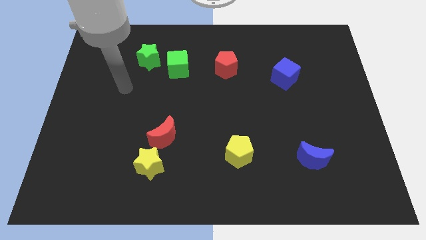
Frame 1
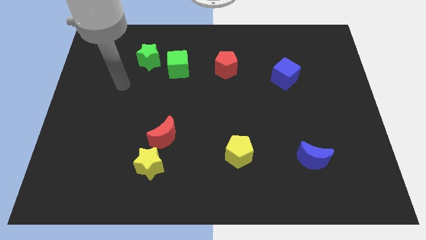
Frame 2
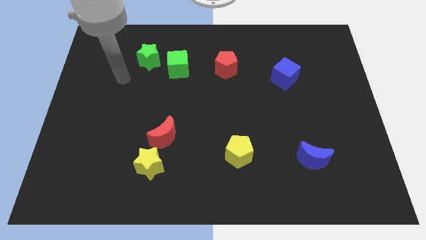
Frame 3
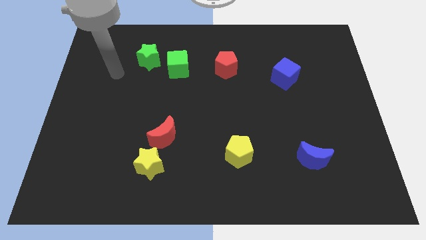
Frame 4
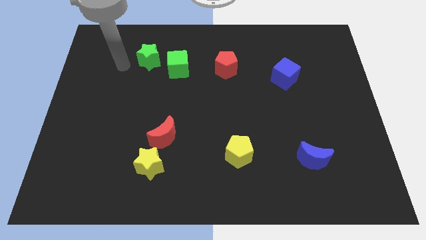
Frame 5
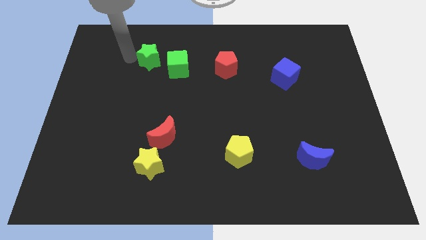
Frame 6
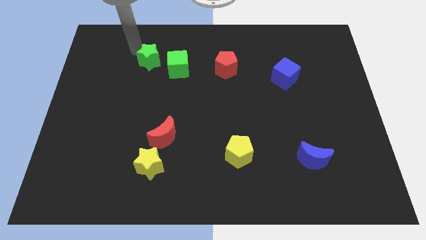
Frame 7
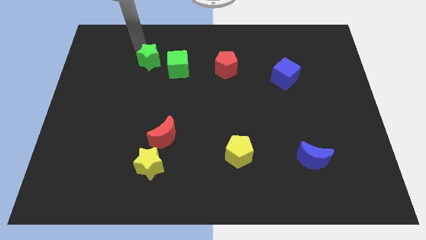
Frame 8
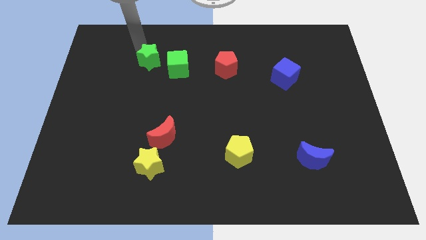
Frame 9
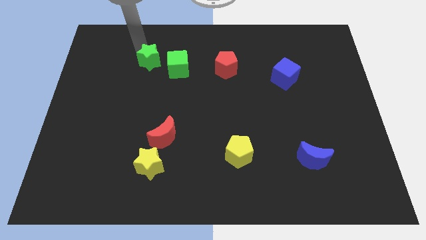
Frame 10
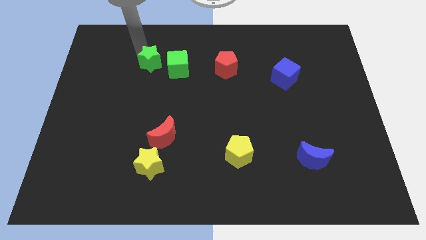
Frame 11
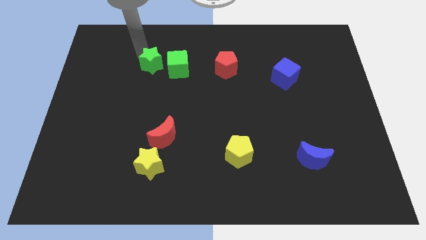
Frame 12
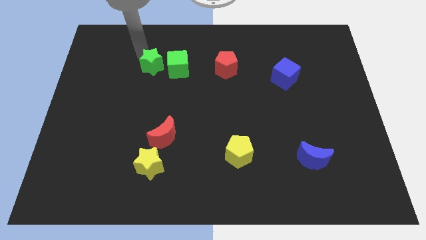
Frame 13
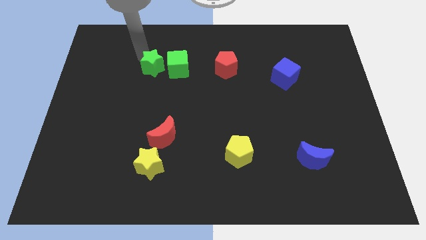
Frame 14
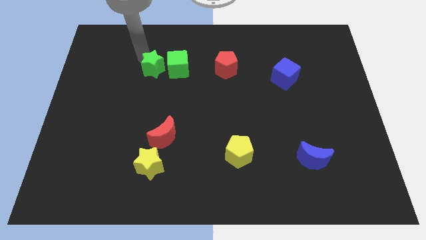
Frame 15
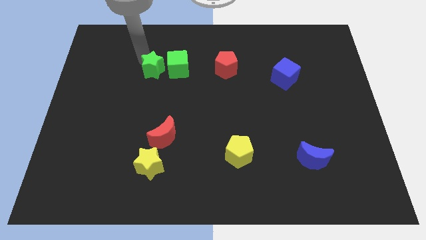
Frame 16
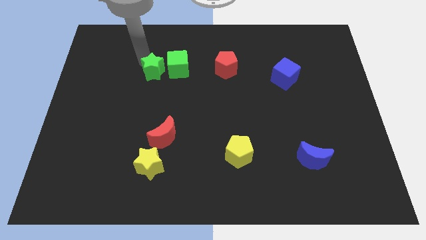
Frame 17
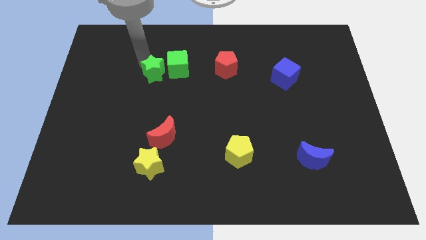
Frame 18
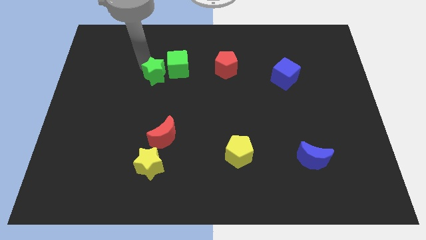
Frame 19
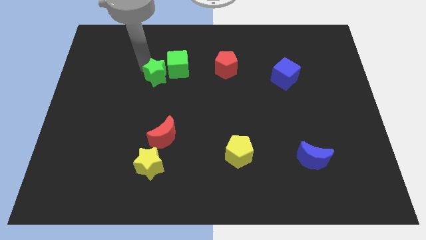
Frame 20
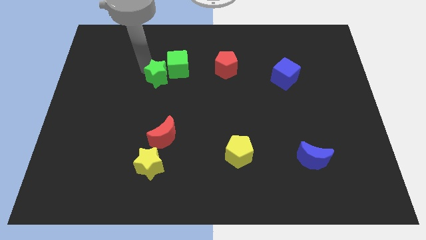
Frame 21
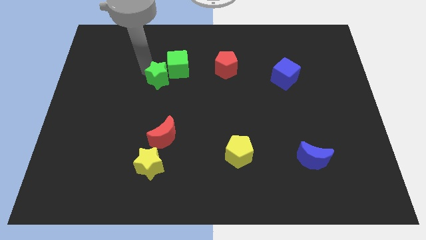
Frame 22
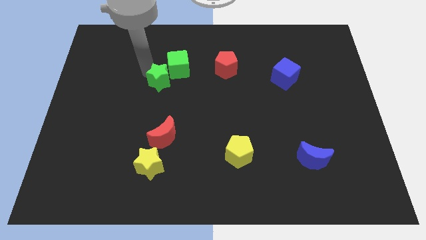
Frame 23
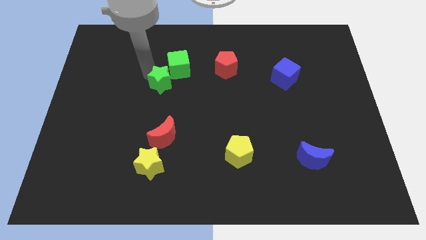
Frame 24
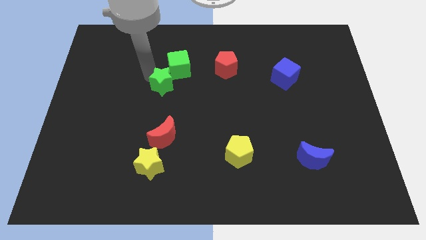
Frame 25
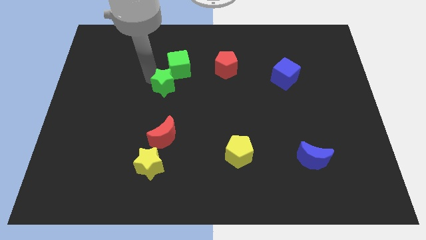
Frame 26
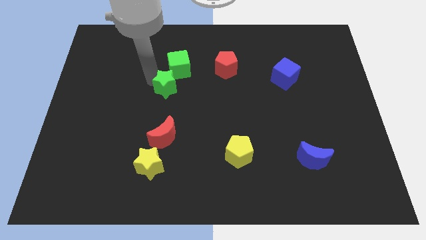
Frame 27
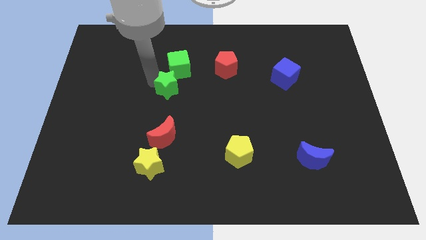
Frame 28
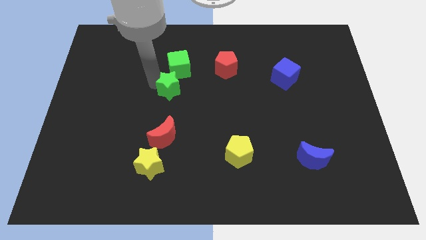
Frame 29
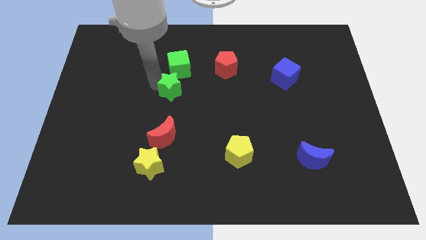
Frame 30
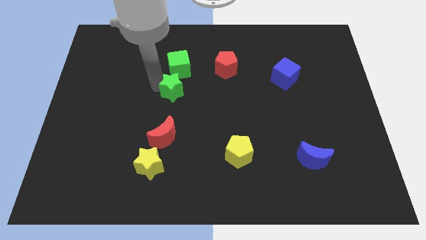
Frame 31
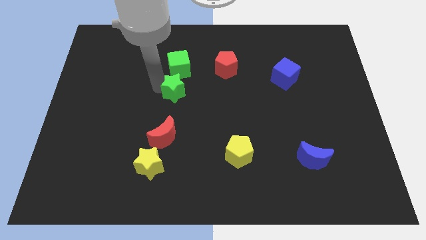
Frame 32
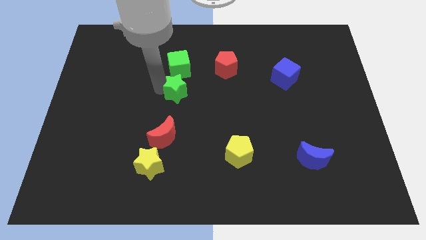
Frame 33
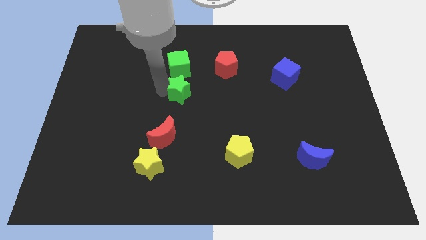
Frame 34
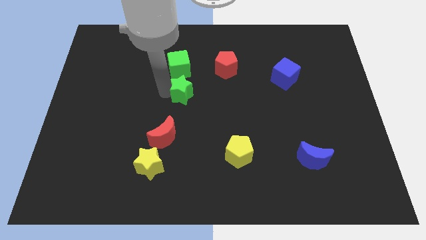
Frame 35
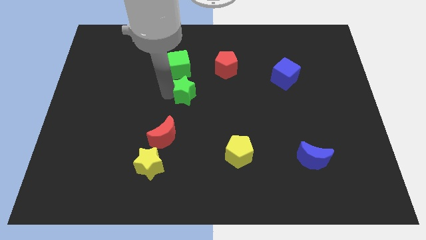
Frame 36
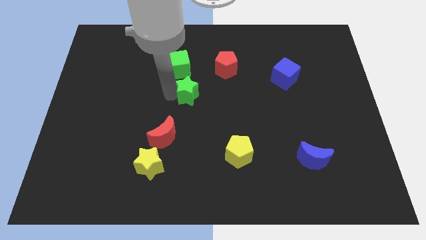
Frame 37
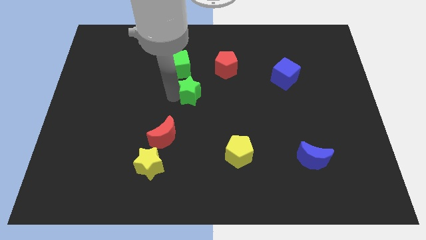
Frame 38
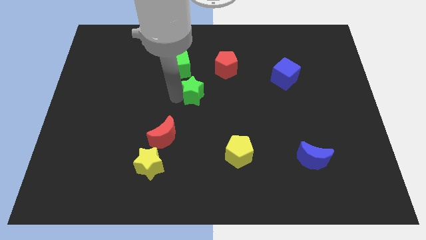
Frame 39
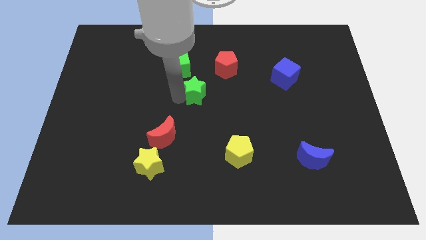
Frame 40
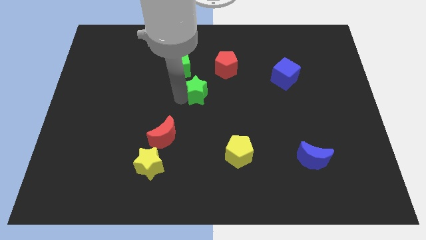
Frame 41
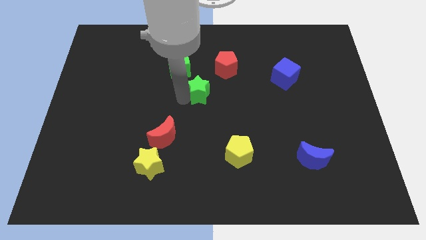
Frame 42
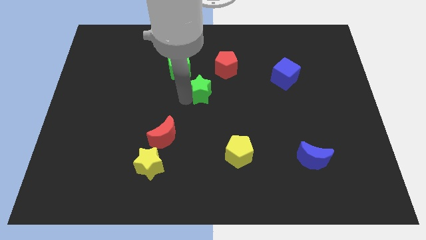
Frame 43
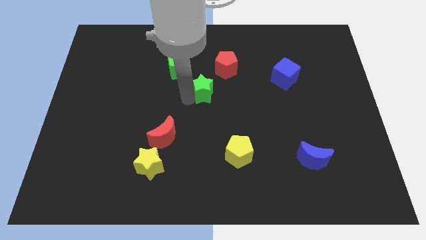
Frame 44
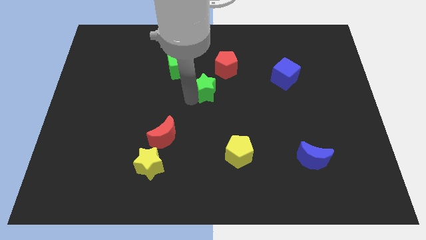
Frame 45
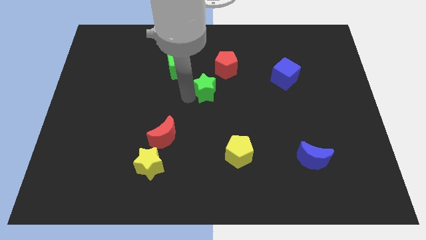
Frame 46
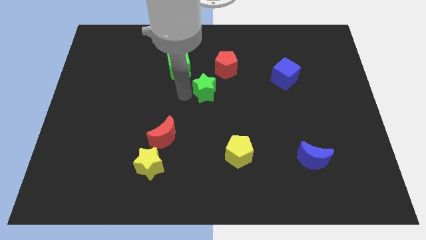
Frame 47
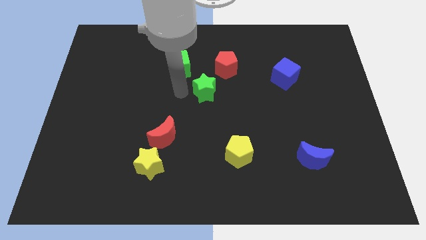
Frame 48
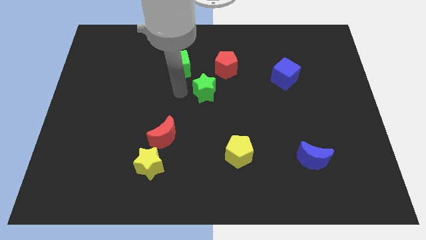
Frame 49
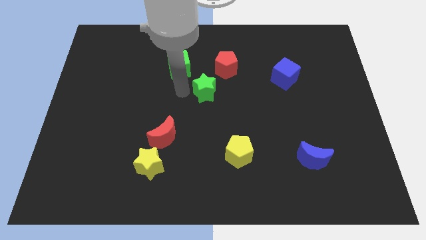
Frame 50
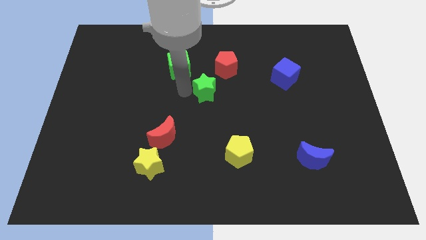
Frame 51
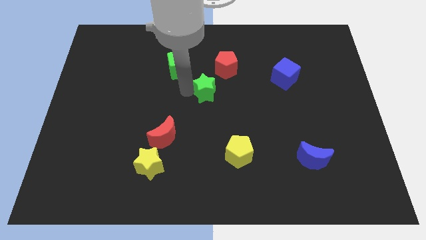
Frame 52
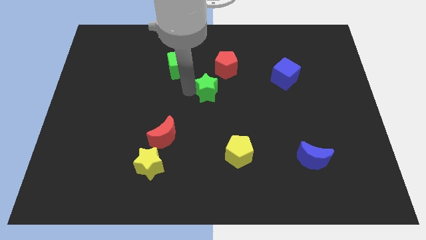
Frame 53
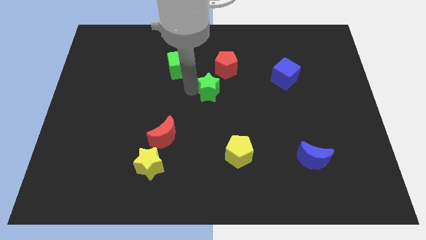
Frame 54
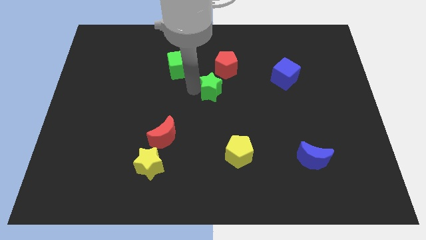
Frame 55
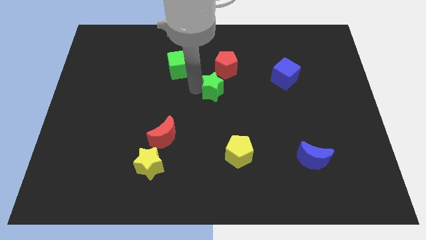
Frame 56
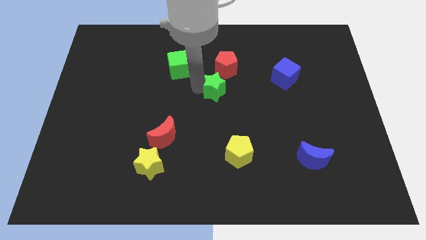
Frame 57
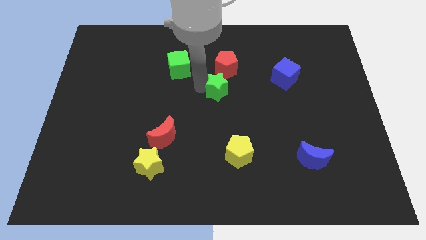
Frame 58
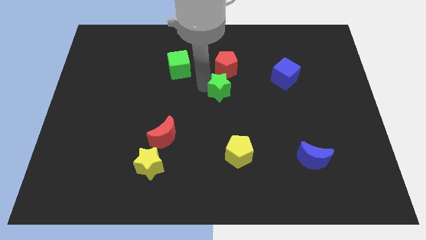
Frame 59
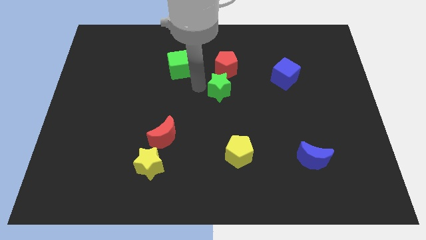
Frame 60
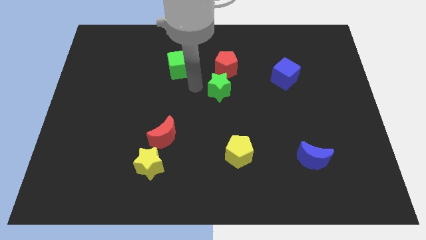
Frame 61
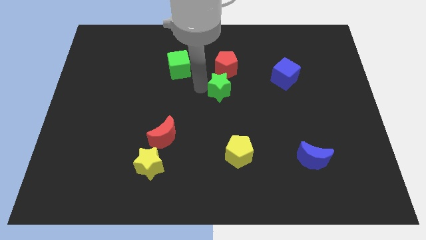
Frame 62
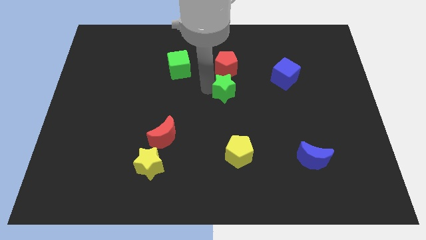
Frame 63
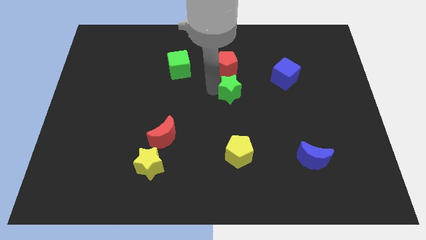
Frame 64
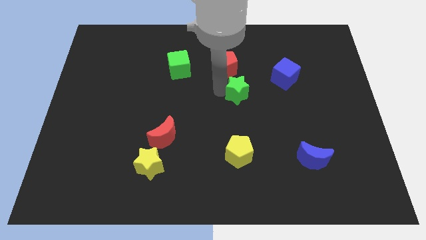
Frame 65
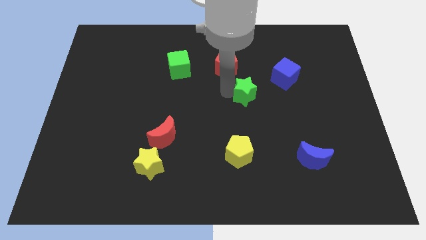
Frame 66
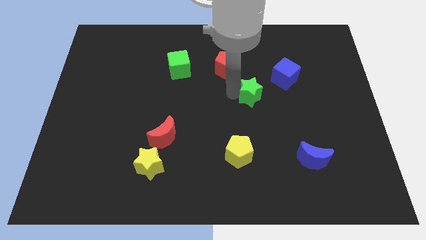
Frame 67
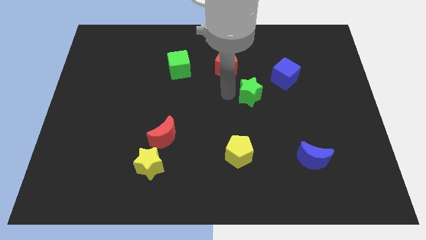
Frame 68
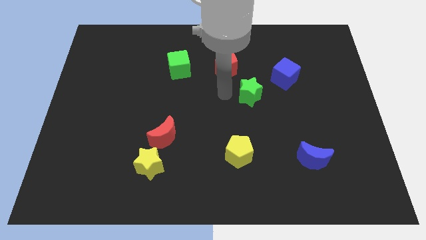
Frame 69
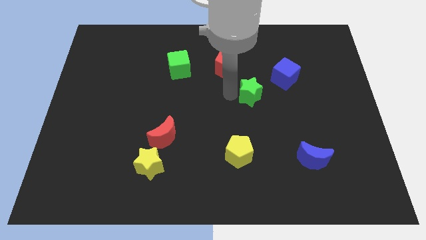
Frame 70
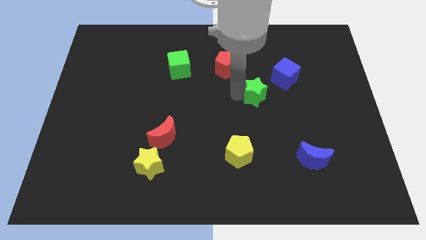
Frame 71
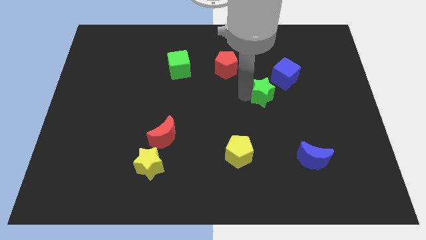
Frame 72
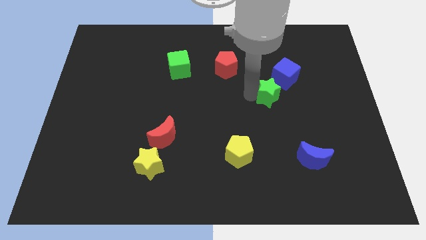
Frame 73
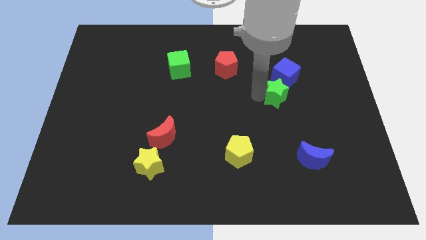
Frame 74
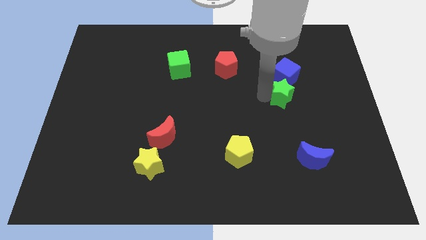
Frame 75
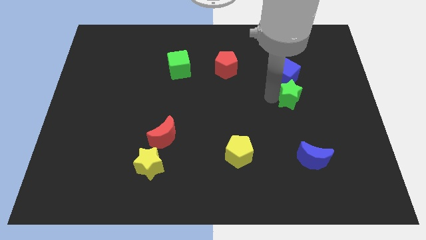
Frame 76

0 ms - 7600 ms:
put the green star to the bottom right of the blue cube

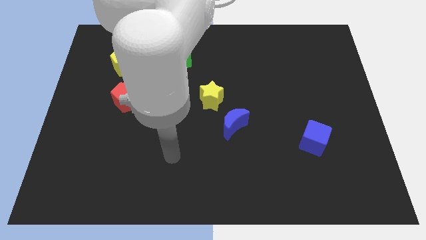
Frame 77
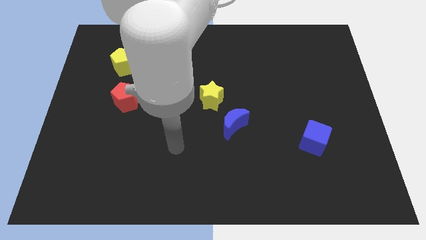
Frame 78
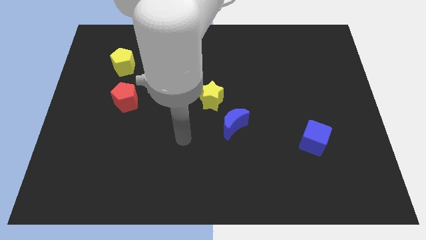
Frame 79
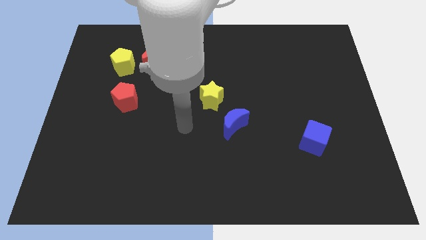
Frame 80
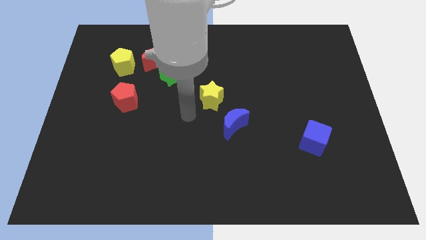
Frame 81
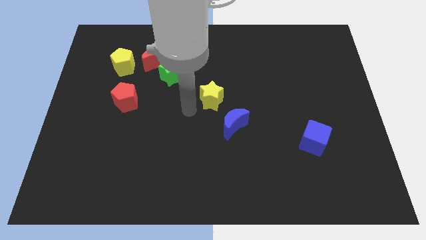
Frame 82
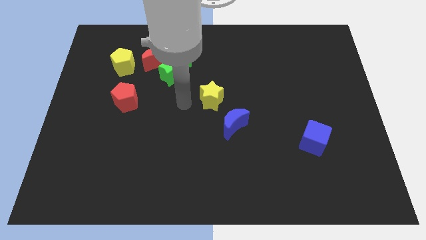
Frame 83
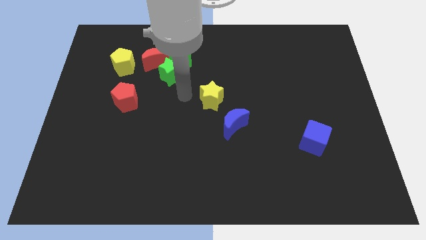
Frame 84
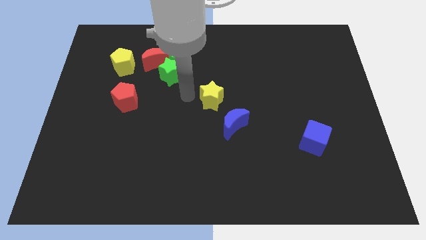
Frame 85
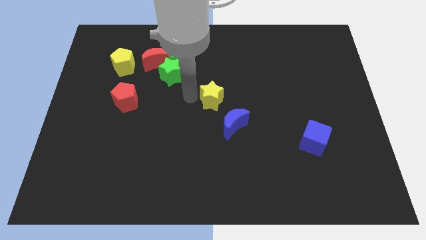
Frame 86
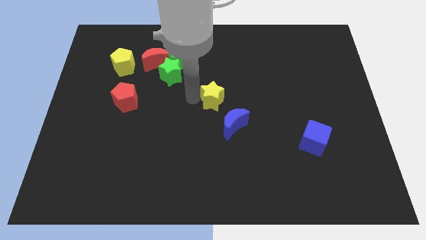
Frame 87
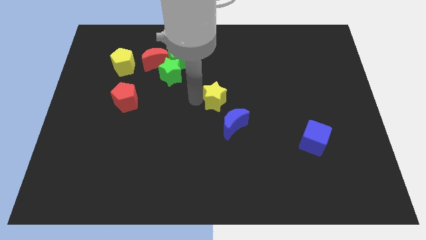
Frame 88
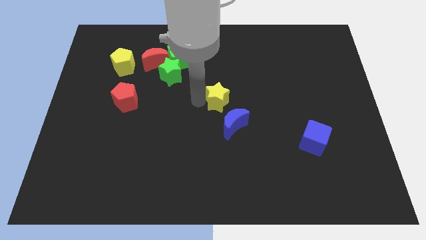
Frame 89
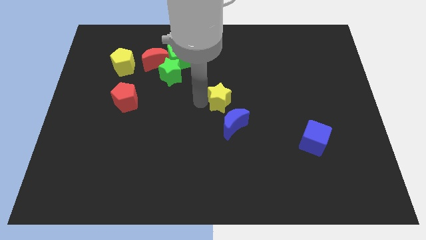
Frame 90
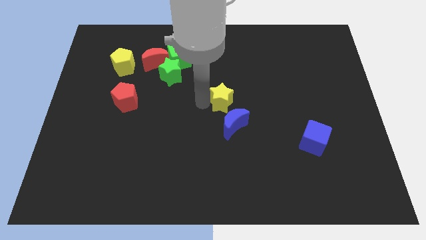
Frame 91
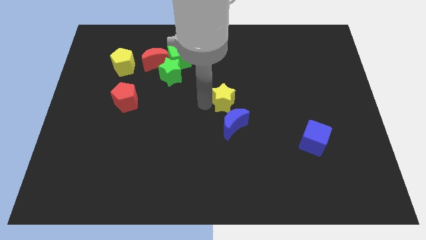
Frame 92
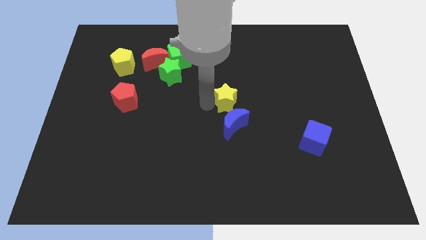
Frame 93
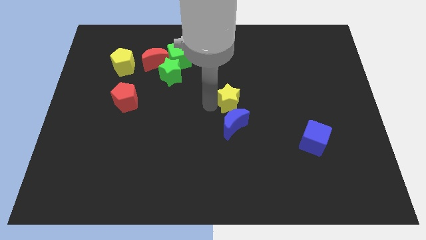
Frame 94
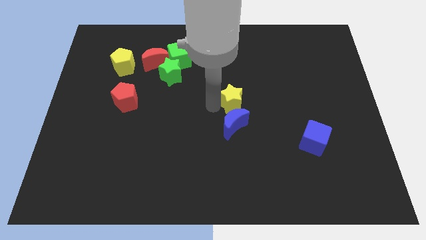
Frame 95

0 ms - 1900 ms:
slide the yellow star to the top right side of the blue moon
